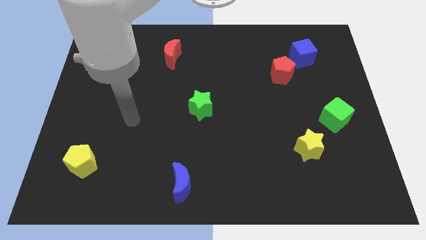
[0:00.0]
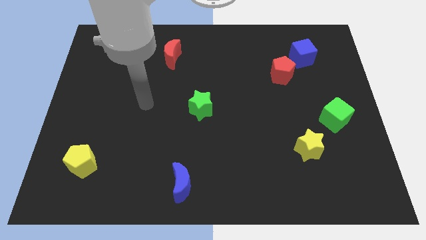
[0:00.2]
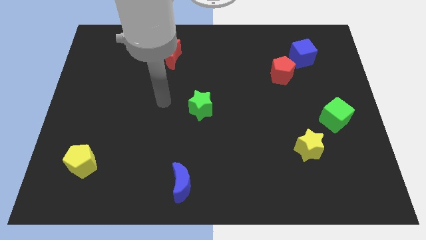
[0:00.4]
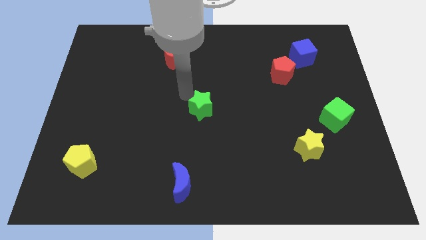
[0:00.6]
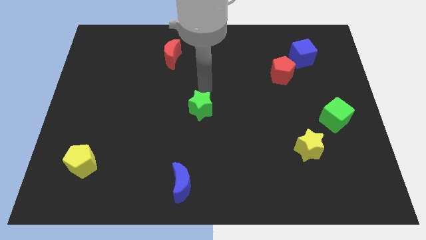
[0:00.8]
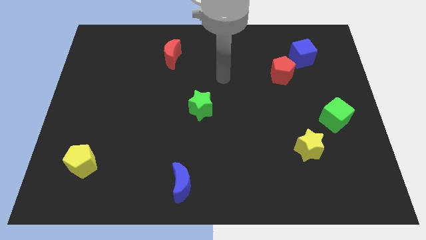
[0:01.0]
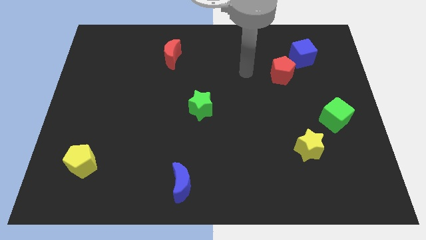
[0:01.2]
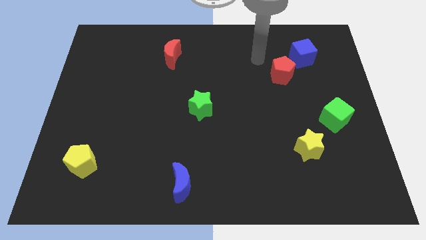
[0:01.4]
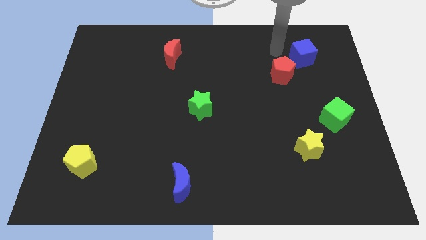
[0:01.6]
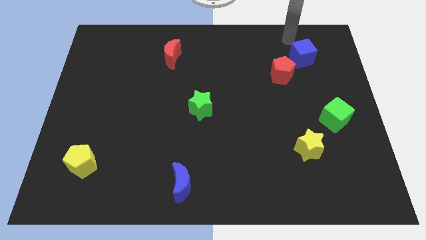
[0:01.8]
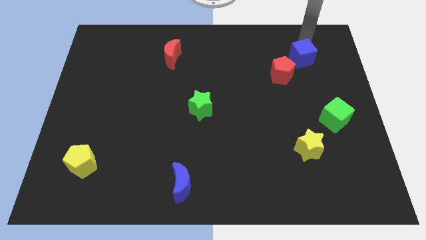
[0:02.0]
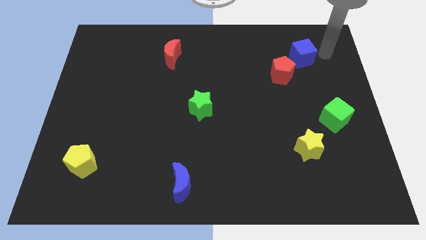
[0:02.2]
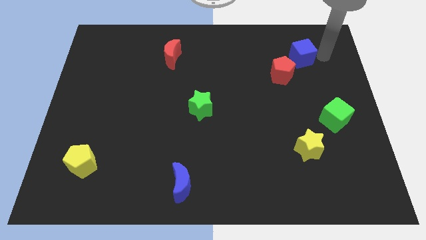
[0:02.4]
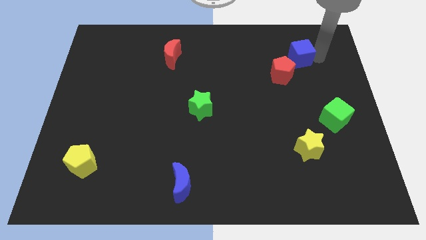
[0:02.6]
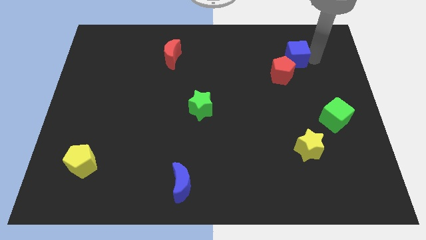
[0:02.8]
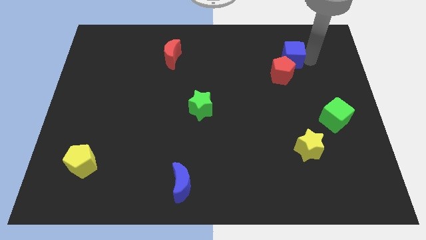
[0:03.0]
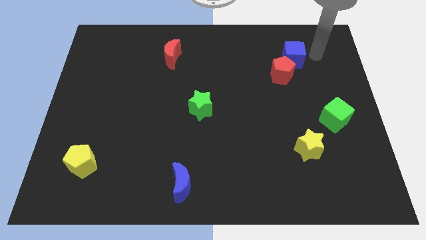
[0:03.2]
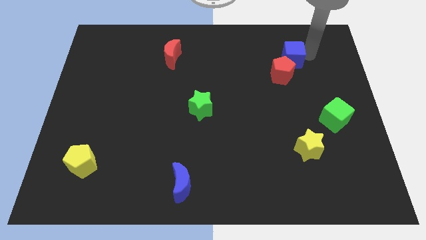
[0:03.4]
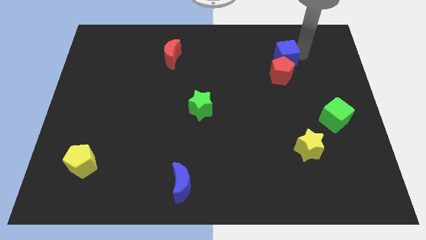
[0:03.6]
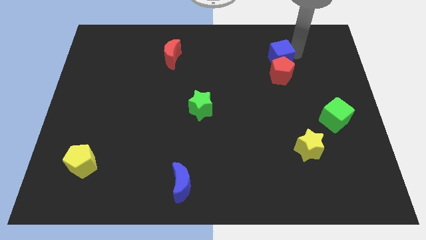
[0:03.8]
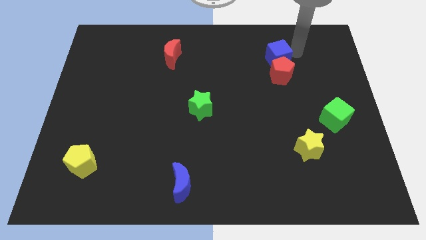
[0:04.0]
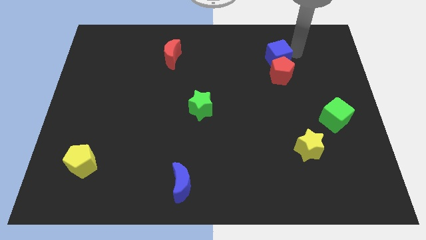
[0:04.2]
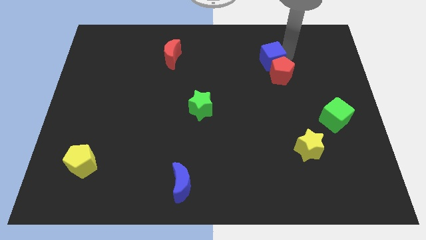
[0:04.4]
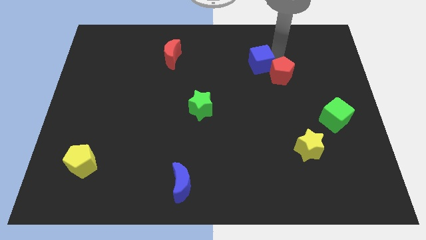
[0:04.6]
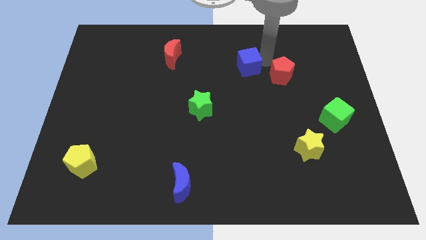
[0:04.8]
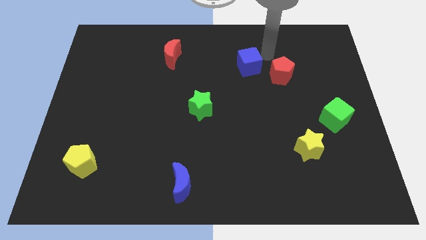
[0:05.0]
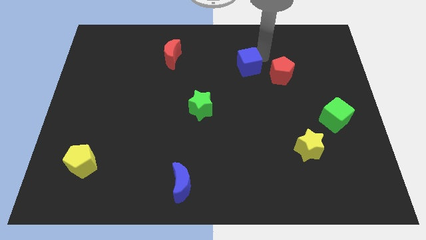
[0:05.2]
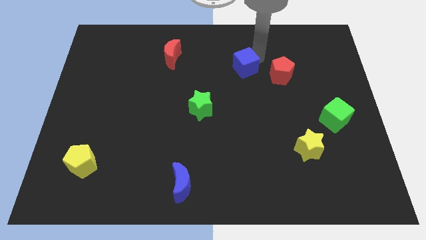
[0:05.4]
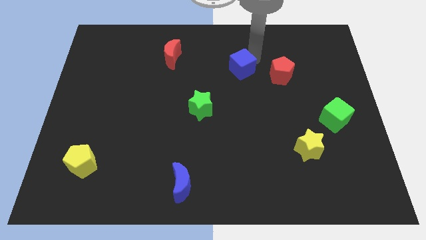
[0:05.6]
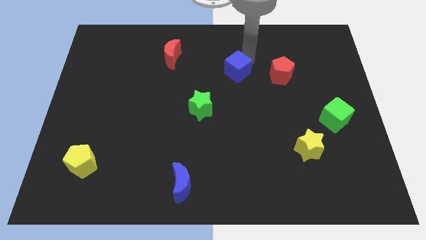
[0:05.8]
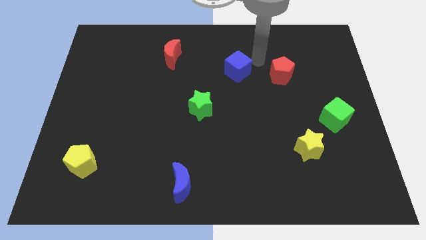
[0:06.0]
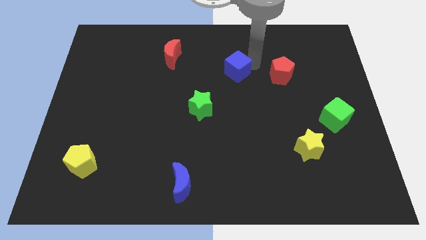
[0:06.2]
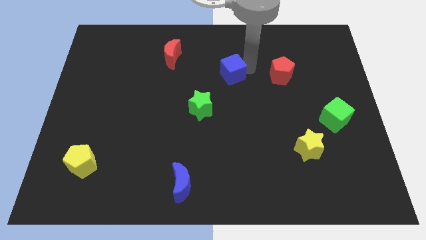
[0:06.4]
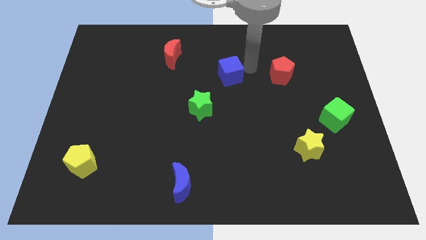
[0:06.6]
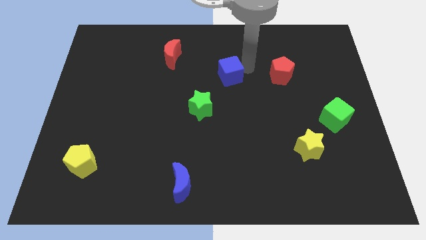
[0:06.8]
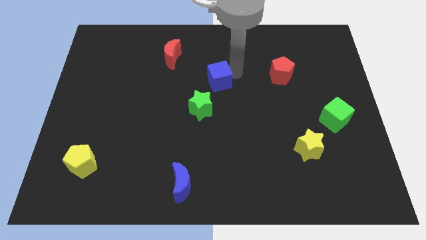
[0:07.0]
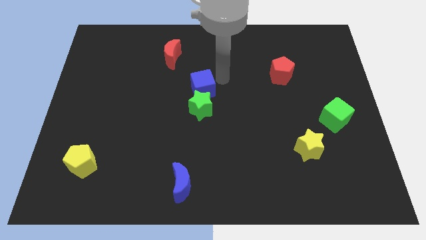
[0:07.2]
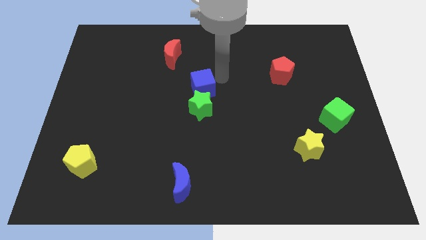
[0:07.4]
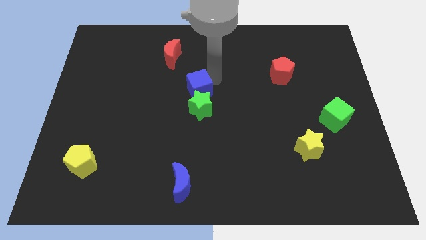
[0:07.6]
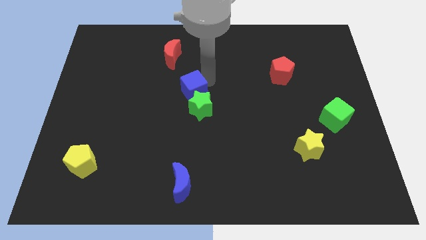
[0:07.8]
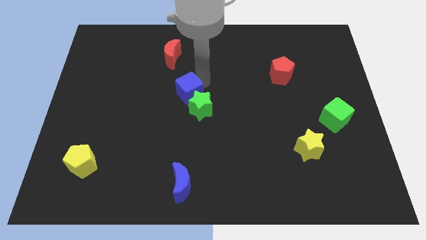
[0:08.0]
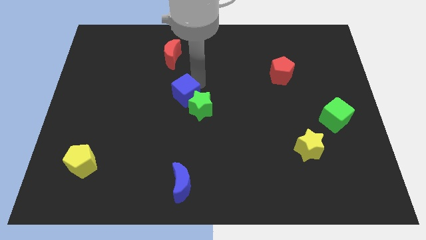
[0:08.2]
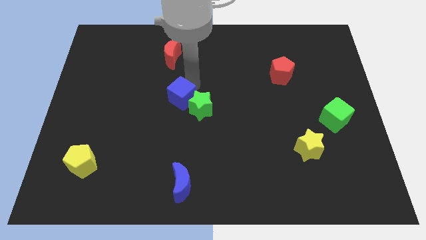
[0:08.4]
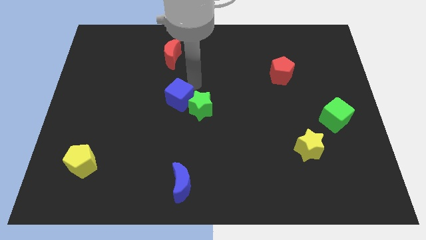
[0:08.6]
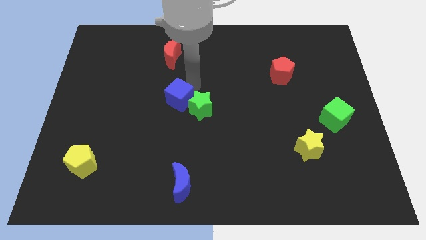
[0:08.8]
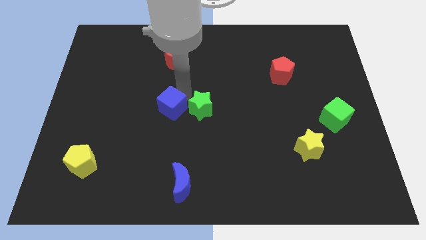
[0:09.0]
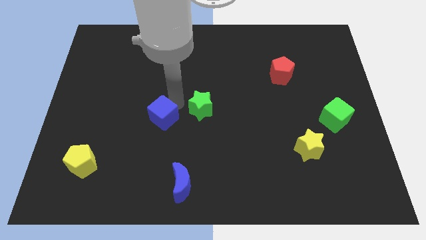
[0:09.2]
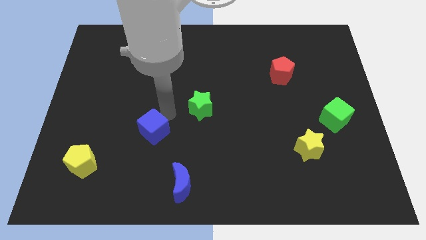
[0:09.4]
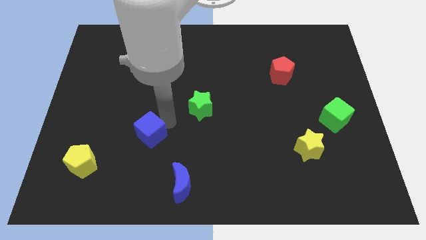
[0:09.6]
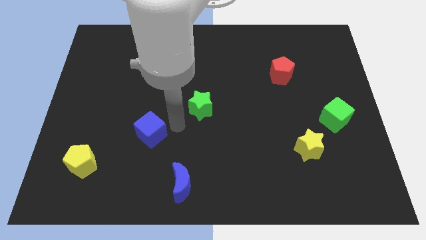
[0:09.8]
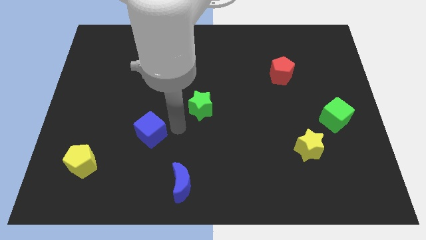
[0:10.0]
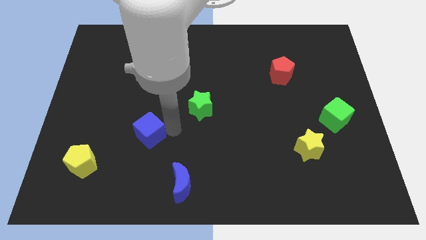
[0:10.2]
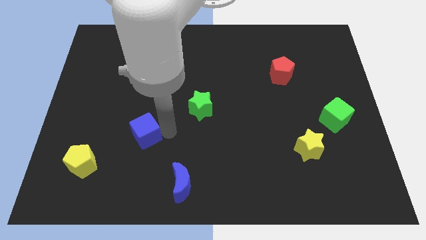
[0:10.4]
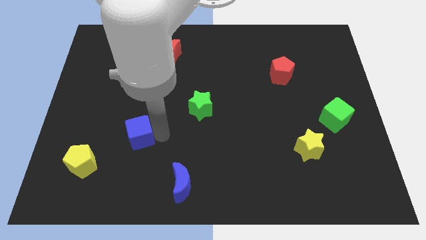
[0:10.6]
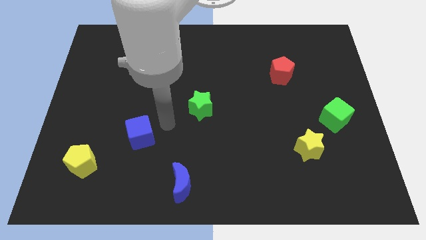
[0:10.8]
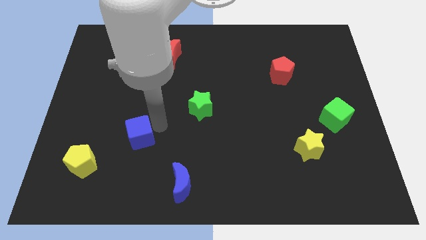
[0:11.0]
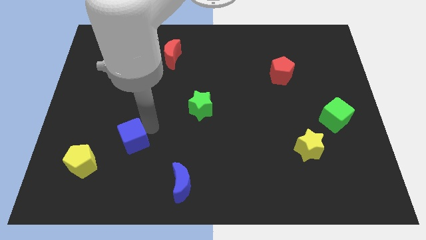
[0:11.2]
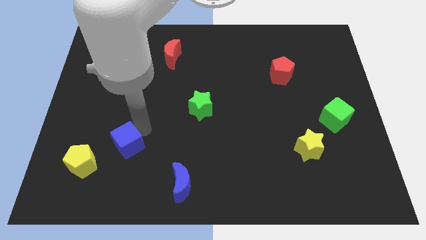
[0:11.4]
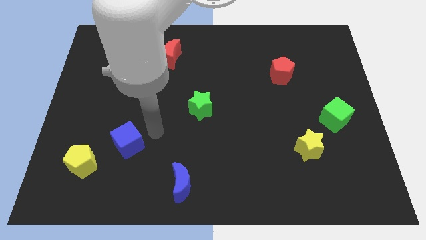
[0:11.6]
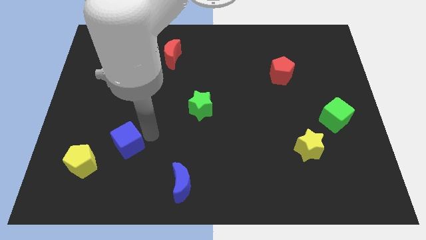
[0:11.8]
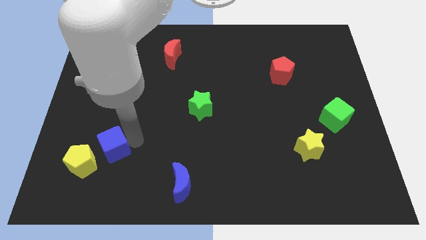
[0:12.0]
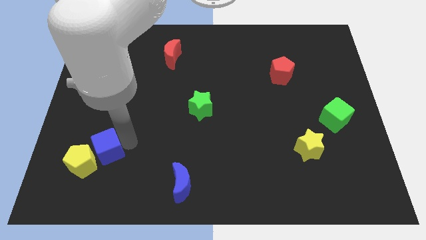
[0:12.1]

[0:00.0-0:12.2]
put the blue cube to the yellow pentagon

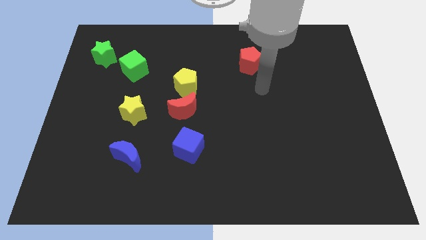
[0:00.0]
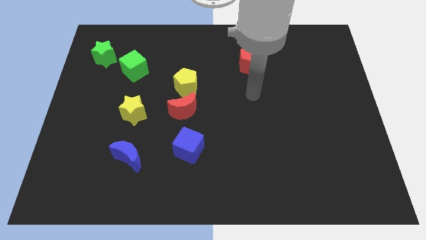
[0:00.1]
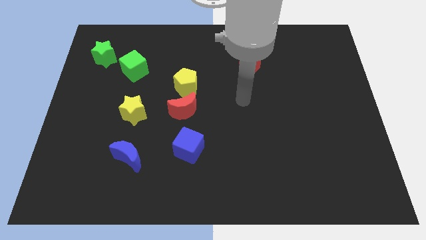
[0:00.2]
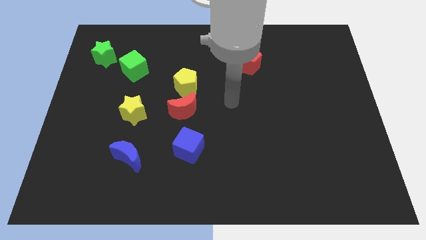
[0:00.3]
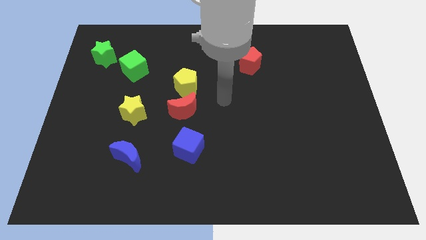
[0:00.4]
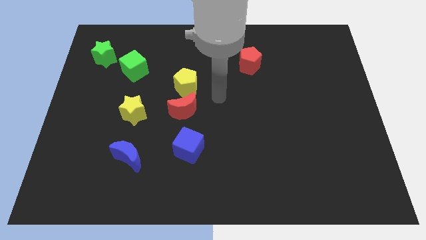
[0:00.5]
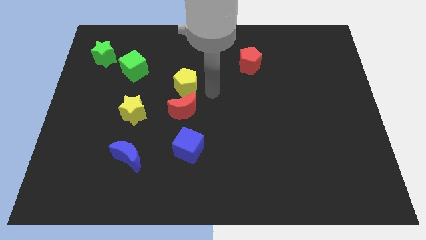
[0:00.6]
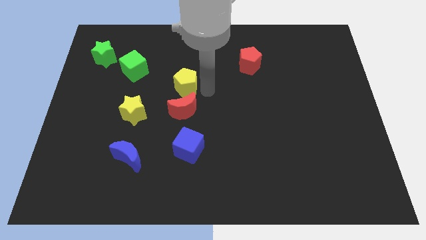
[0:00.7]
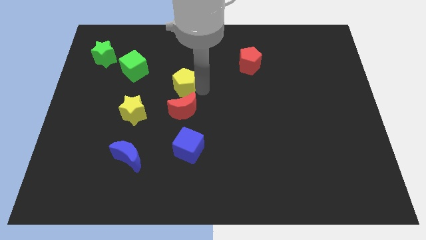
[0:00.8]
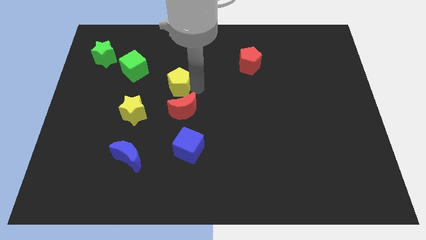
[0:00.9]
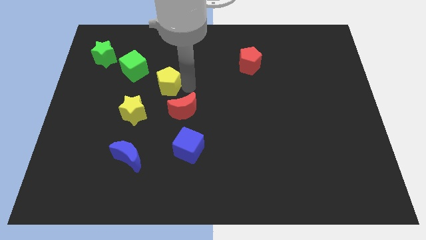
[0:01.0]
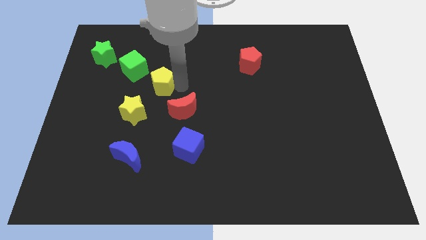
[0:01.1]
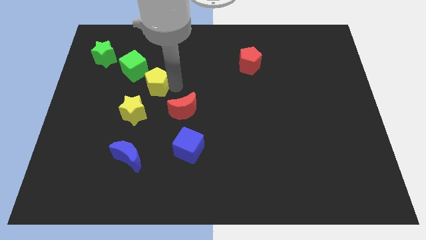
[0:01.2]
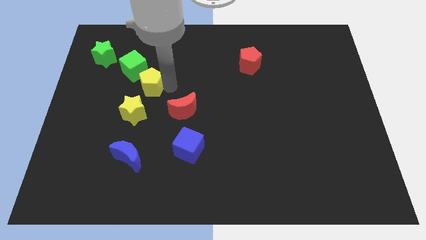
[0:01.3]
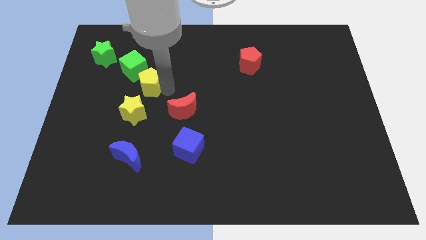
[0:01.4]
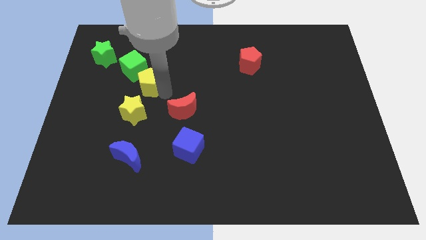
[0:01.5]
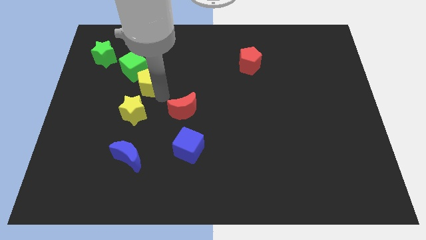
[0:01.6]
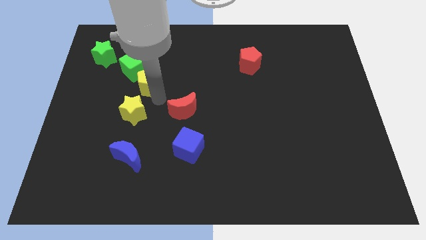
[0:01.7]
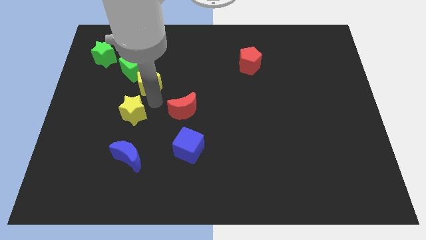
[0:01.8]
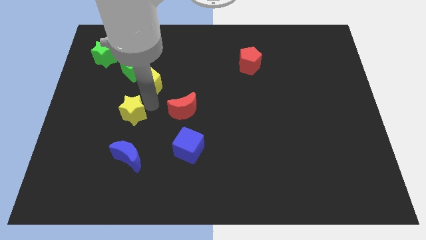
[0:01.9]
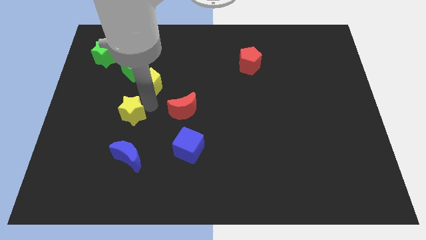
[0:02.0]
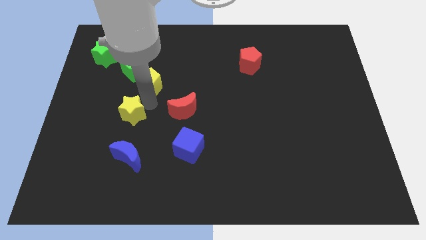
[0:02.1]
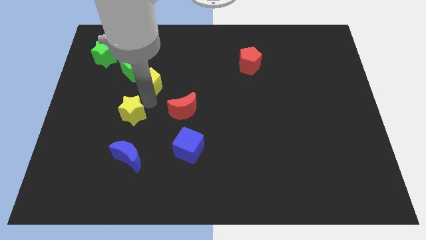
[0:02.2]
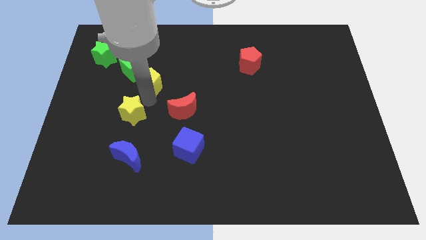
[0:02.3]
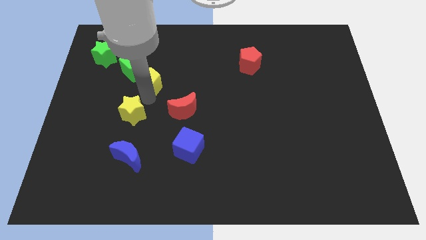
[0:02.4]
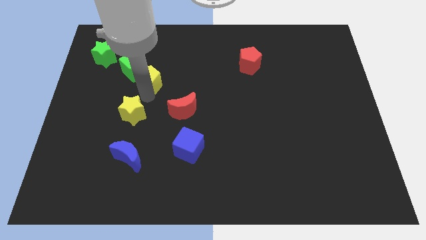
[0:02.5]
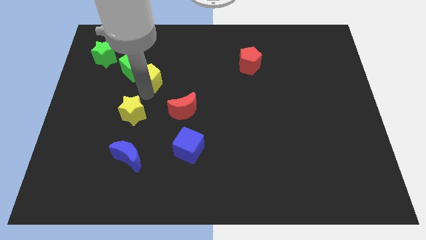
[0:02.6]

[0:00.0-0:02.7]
move the yellow pentagon to the green cube
